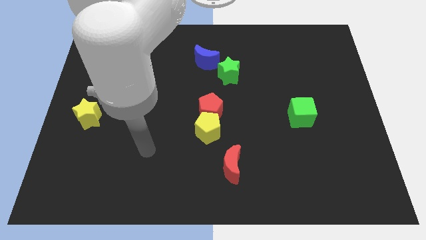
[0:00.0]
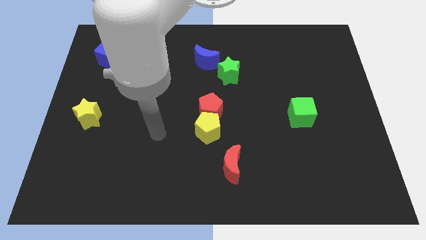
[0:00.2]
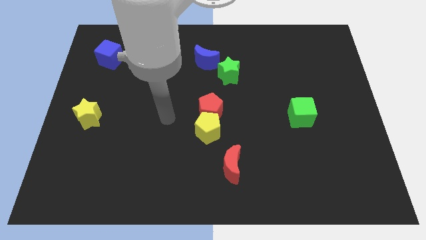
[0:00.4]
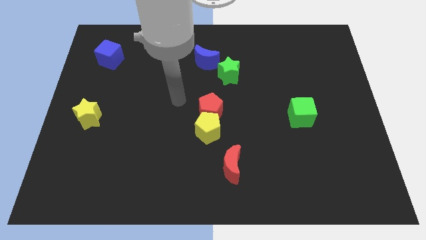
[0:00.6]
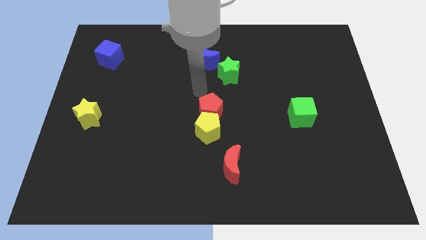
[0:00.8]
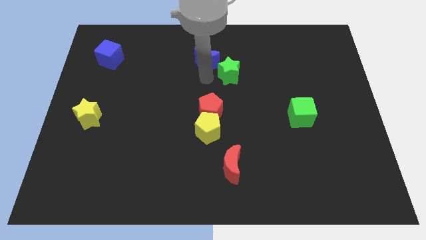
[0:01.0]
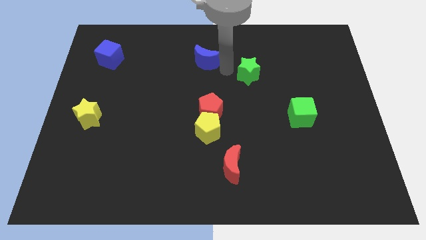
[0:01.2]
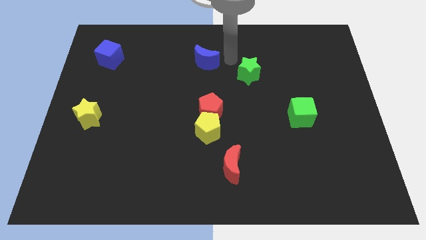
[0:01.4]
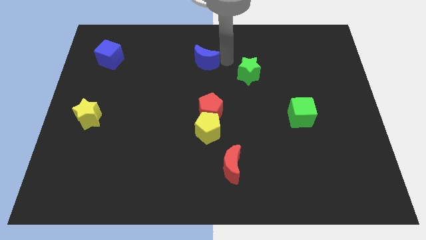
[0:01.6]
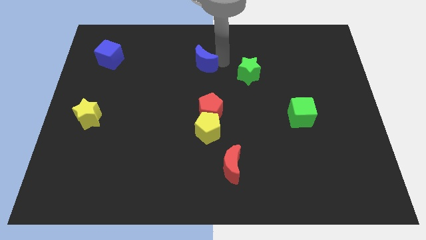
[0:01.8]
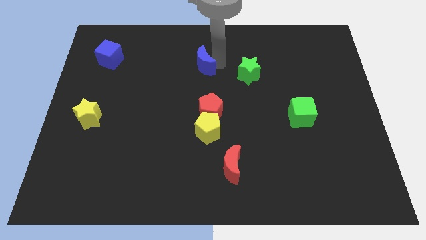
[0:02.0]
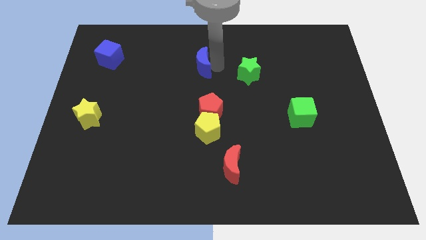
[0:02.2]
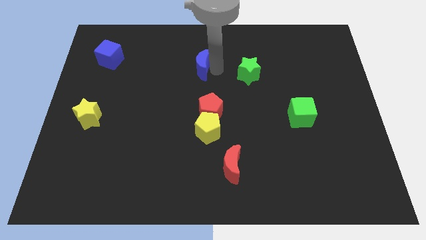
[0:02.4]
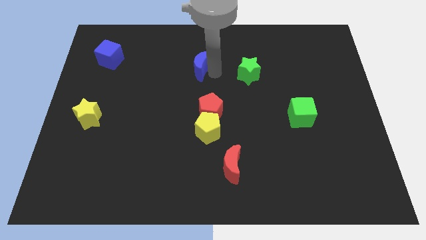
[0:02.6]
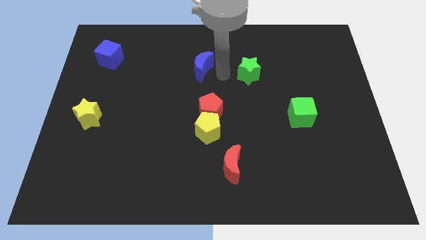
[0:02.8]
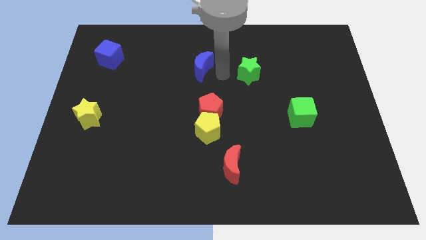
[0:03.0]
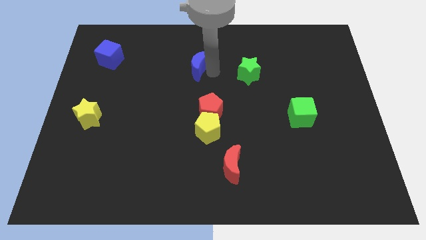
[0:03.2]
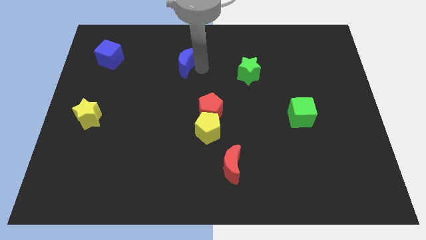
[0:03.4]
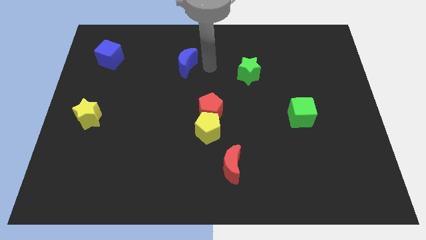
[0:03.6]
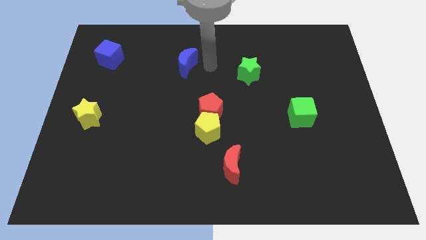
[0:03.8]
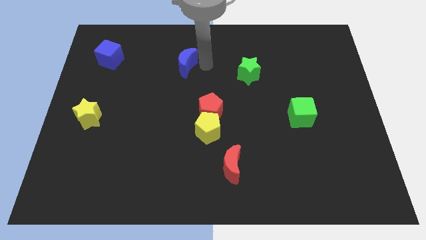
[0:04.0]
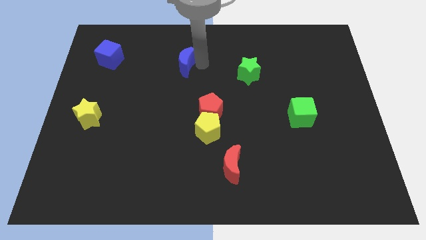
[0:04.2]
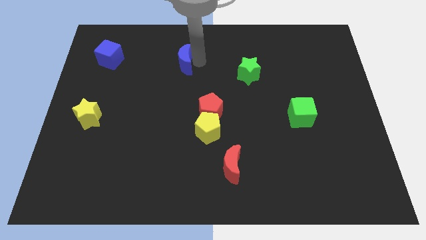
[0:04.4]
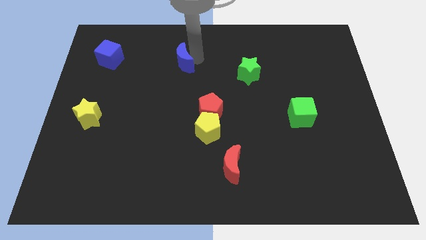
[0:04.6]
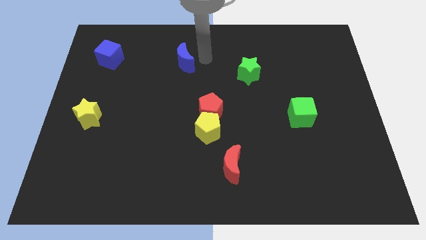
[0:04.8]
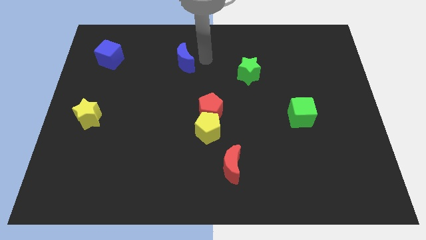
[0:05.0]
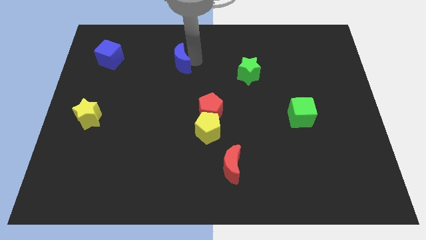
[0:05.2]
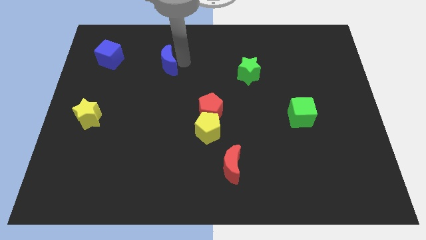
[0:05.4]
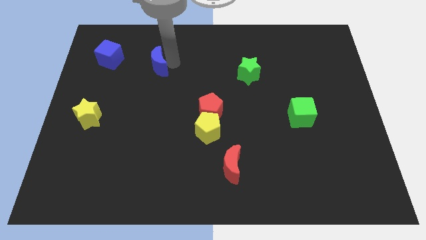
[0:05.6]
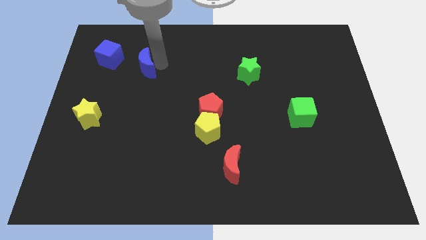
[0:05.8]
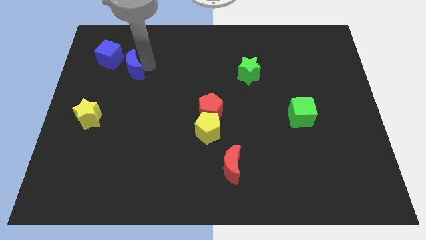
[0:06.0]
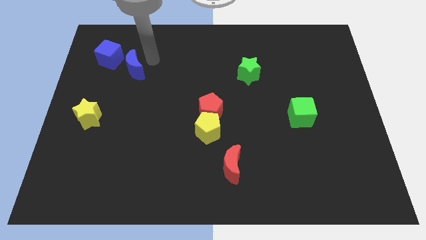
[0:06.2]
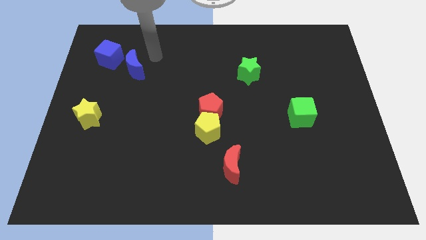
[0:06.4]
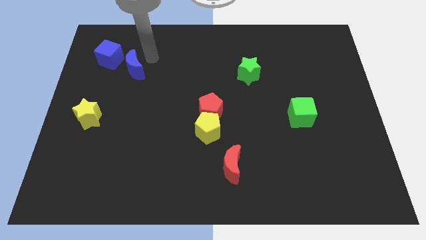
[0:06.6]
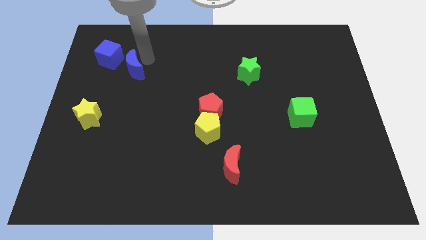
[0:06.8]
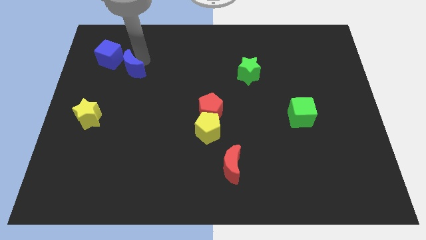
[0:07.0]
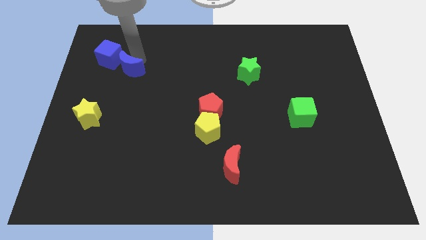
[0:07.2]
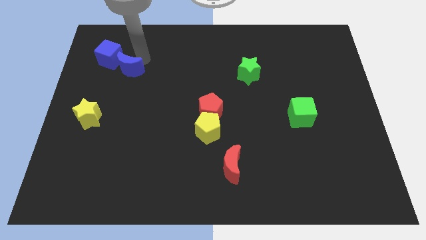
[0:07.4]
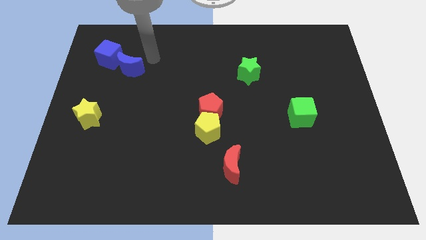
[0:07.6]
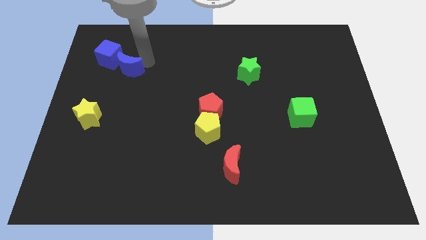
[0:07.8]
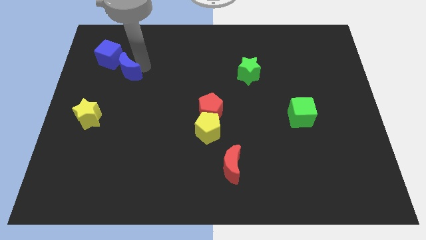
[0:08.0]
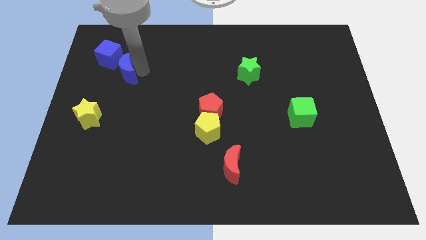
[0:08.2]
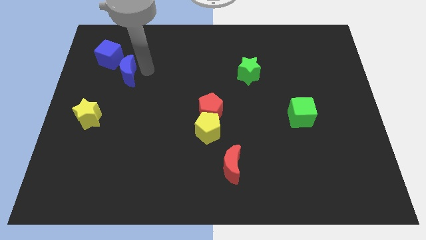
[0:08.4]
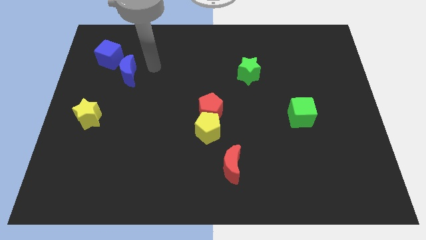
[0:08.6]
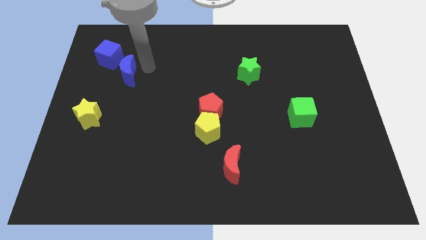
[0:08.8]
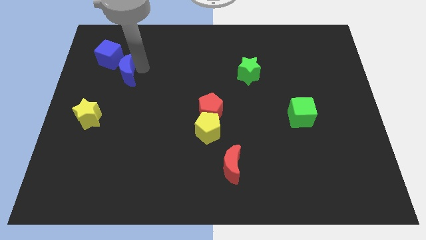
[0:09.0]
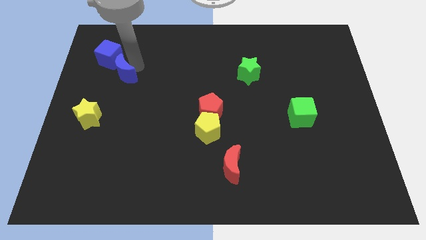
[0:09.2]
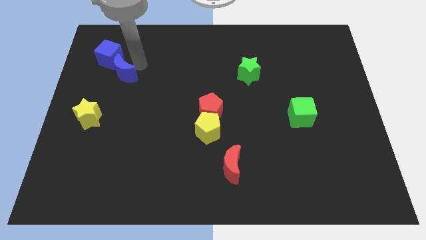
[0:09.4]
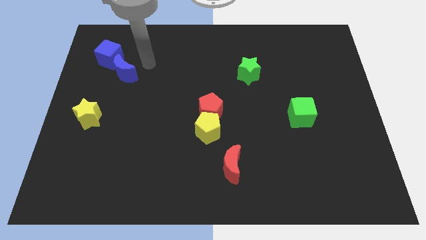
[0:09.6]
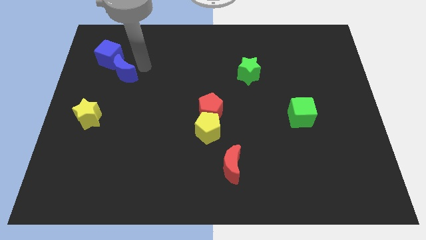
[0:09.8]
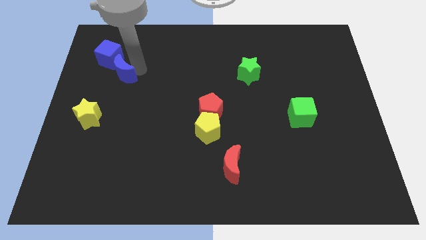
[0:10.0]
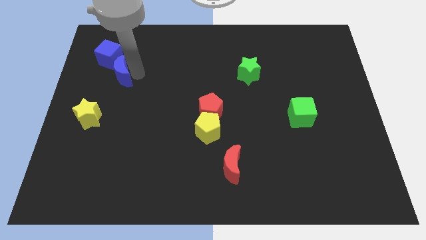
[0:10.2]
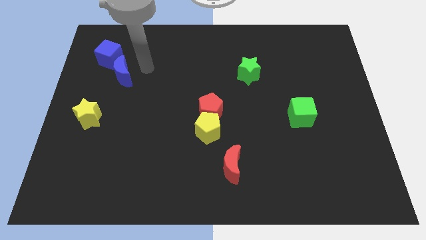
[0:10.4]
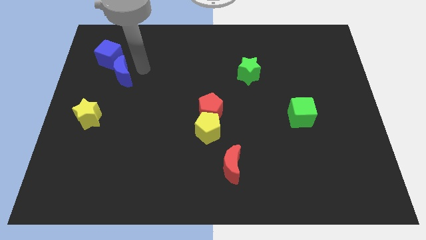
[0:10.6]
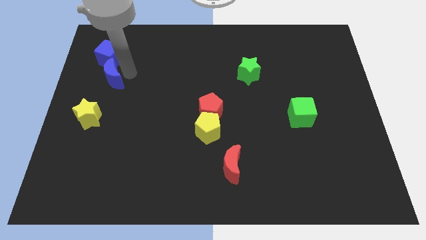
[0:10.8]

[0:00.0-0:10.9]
put the blue moon to the top side of the yellow star

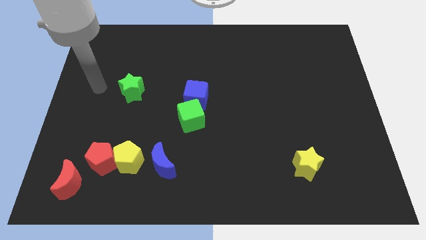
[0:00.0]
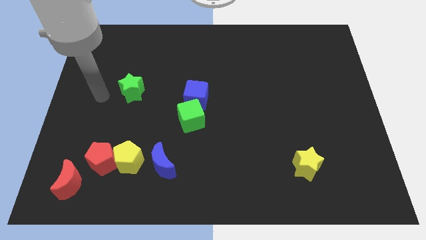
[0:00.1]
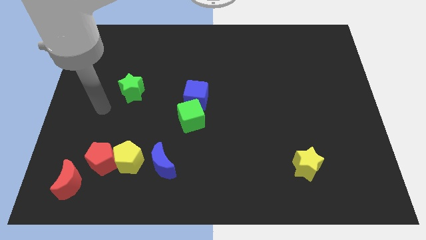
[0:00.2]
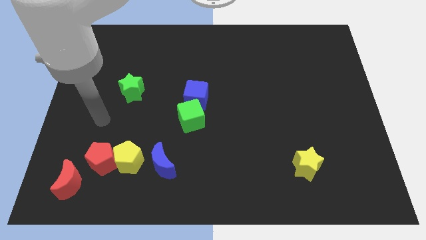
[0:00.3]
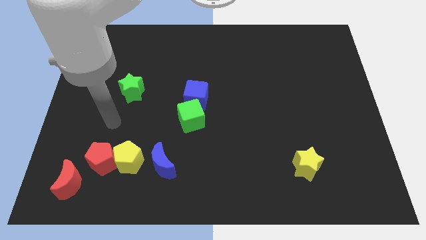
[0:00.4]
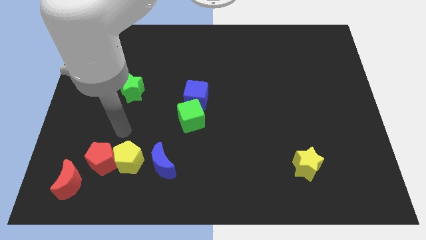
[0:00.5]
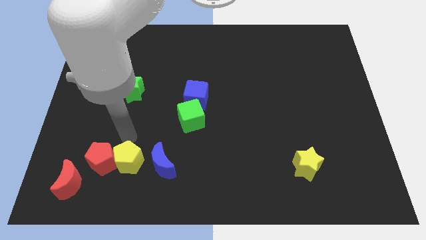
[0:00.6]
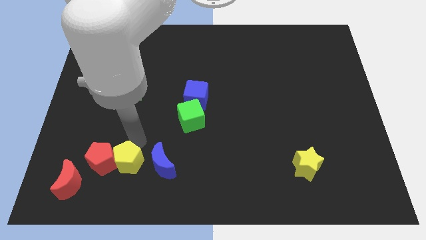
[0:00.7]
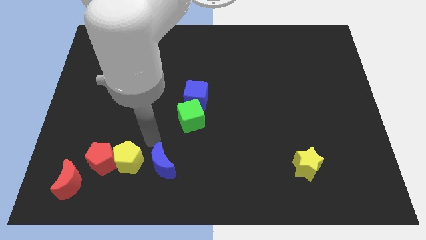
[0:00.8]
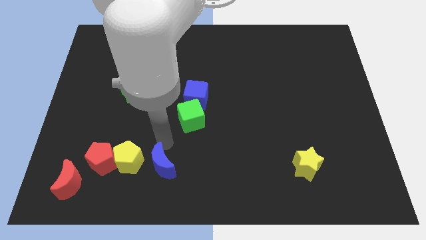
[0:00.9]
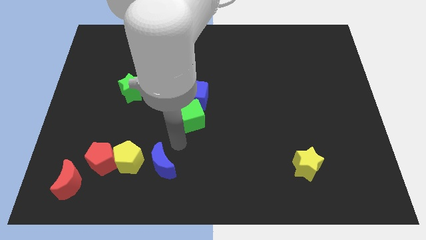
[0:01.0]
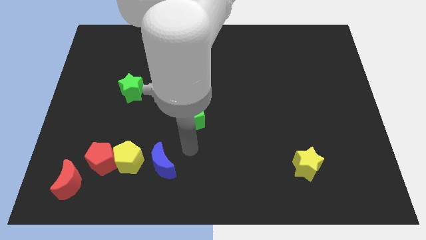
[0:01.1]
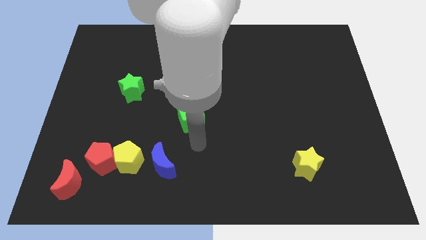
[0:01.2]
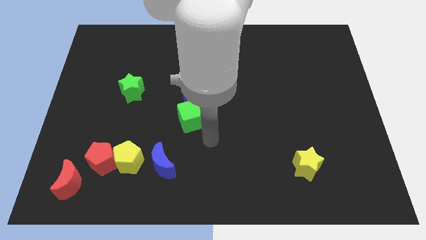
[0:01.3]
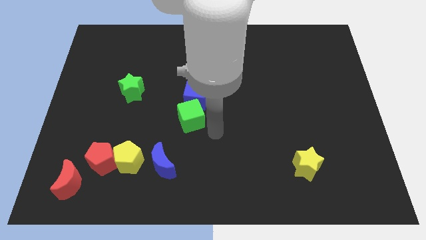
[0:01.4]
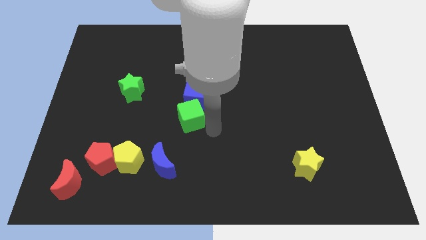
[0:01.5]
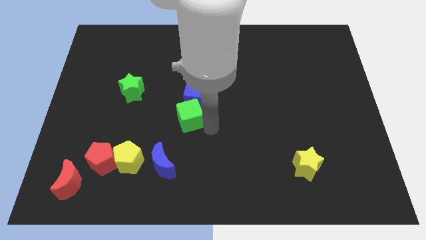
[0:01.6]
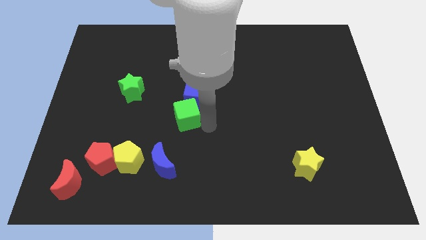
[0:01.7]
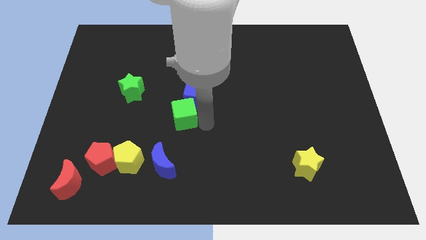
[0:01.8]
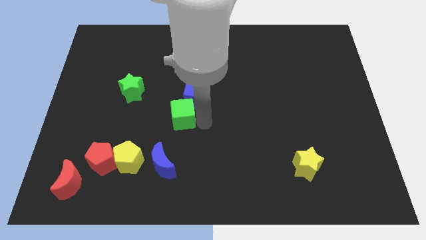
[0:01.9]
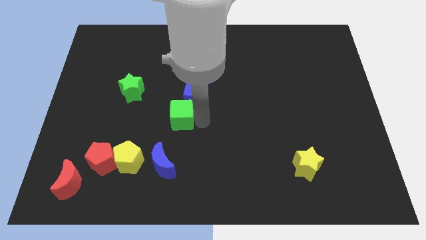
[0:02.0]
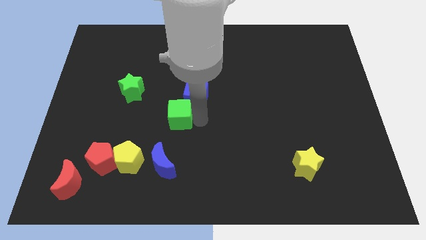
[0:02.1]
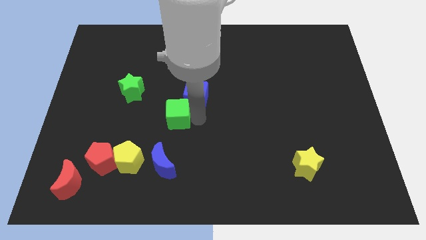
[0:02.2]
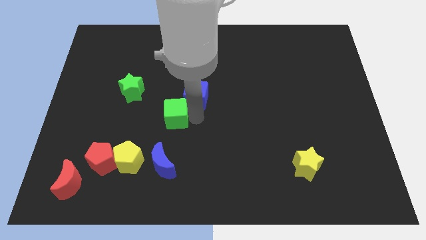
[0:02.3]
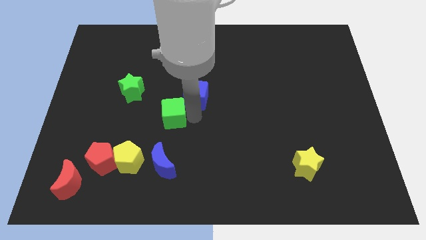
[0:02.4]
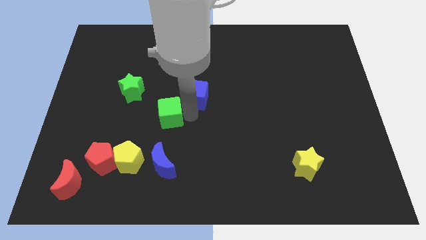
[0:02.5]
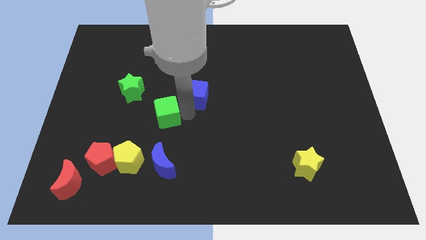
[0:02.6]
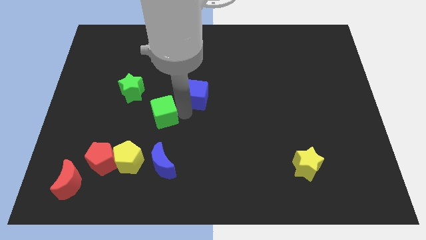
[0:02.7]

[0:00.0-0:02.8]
put the green cube left of the blue cube
